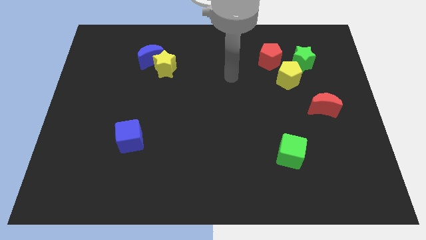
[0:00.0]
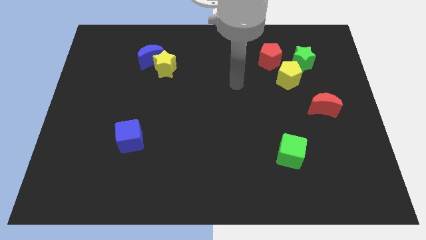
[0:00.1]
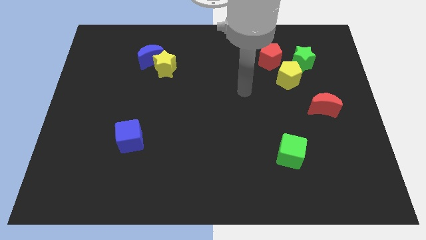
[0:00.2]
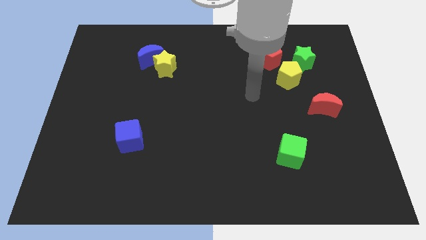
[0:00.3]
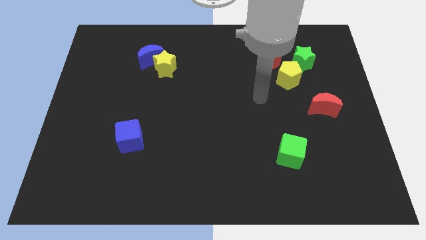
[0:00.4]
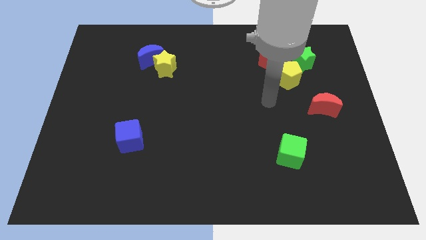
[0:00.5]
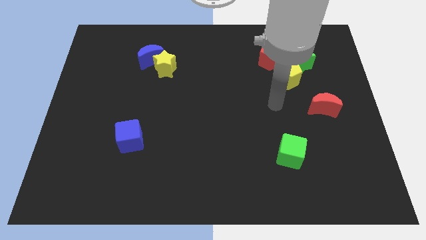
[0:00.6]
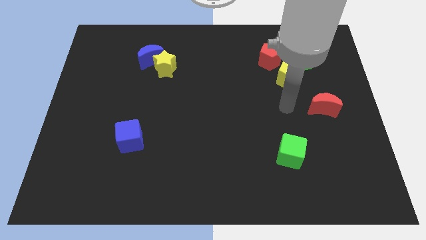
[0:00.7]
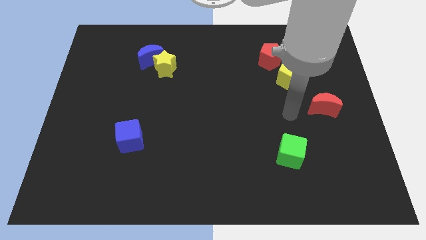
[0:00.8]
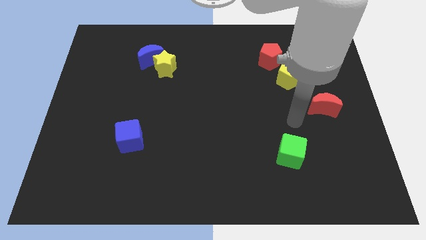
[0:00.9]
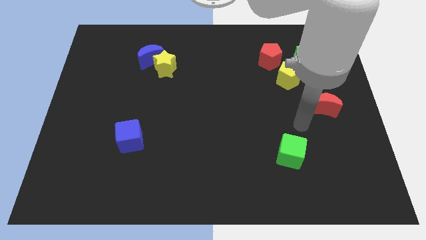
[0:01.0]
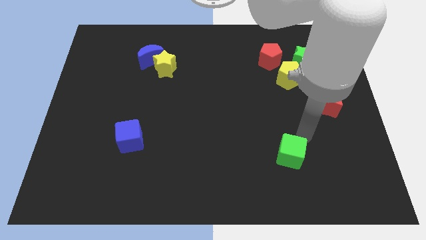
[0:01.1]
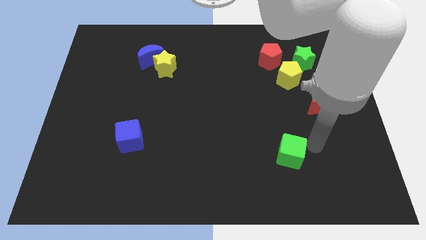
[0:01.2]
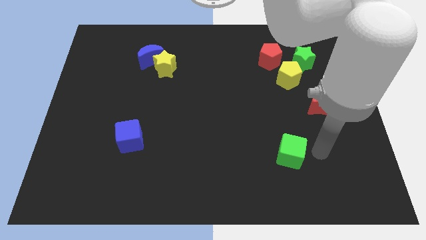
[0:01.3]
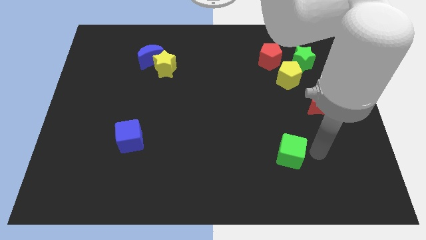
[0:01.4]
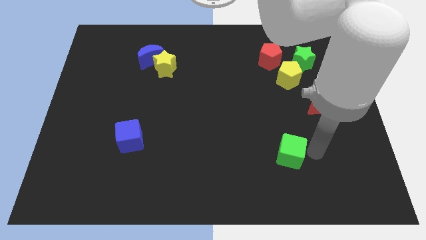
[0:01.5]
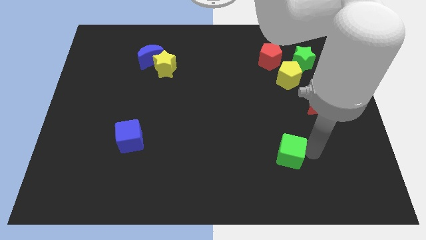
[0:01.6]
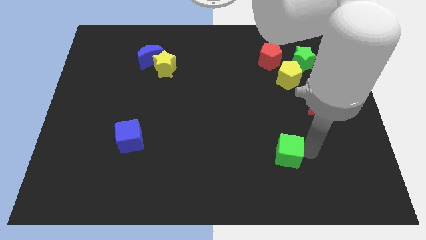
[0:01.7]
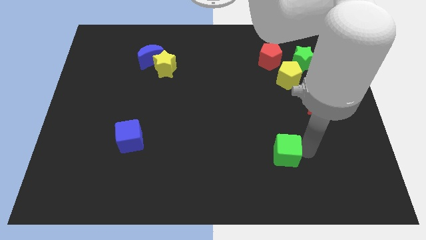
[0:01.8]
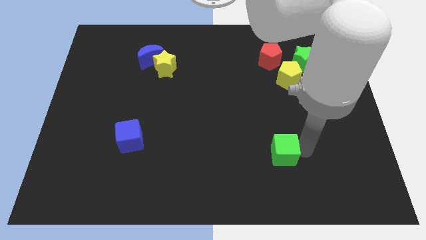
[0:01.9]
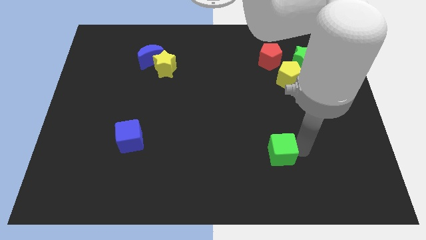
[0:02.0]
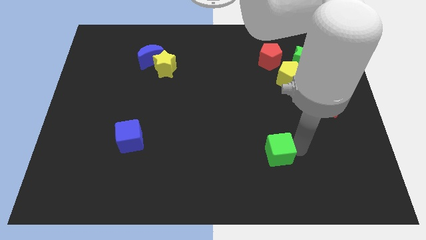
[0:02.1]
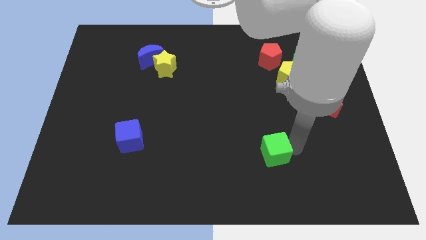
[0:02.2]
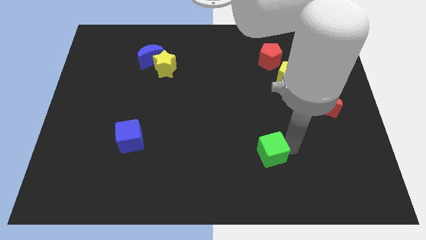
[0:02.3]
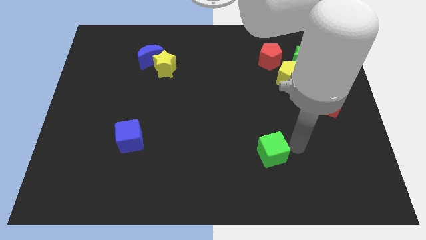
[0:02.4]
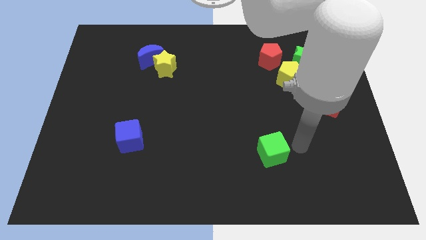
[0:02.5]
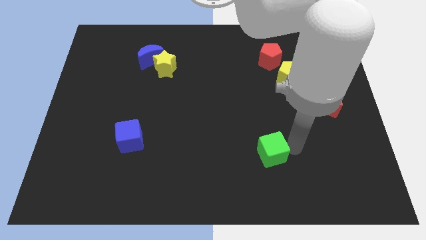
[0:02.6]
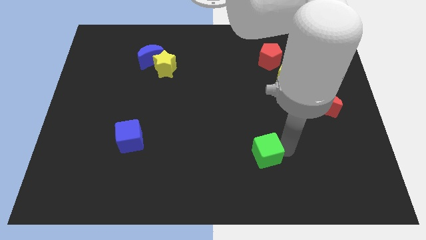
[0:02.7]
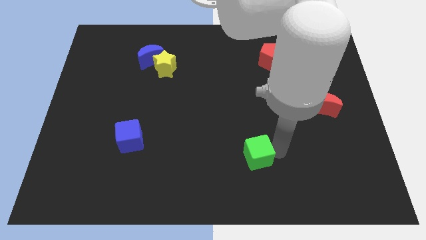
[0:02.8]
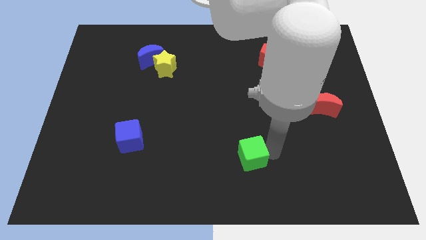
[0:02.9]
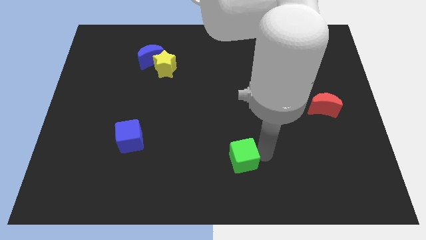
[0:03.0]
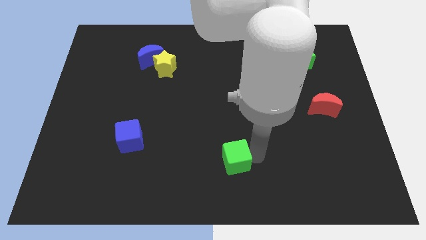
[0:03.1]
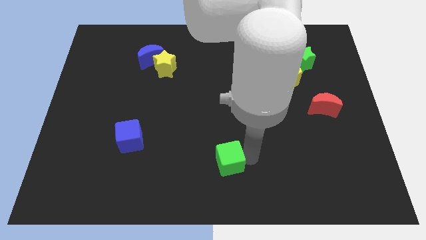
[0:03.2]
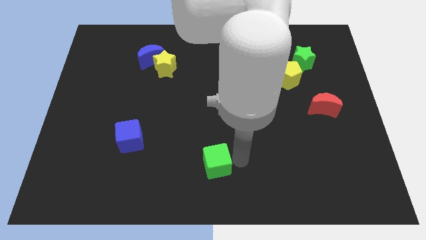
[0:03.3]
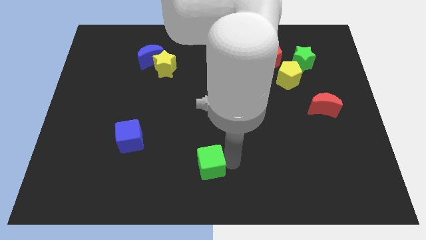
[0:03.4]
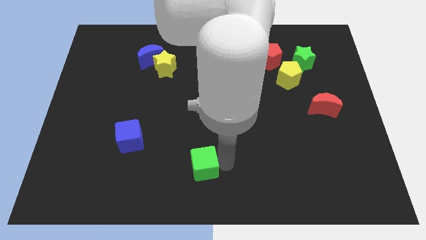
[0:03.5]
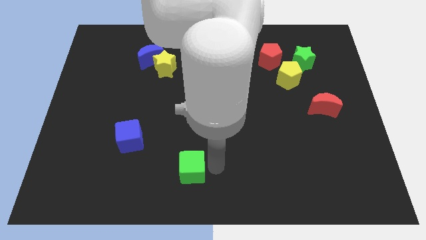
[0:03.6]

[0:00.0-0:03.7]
move the green cube left

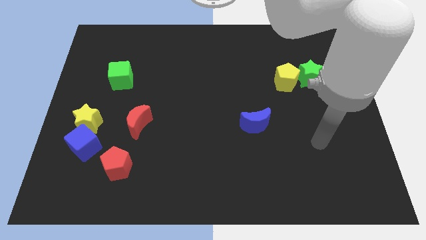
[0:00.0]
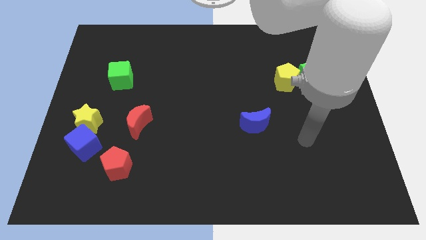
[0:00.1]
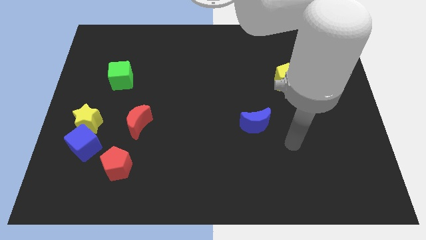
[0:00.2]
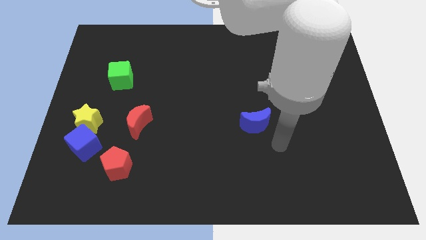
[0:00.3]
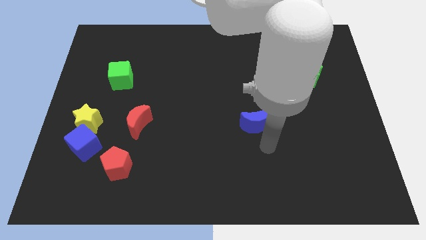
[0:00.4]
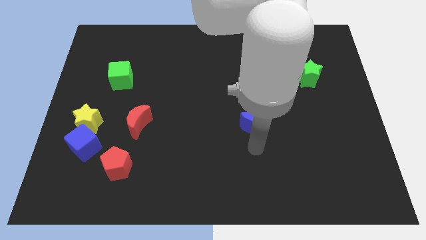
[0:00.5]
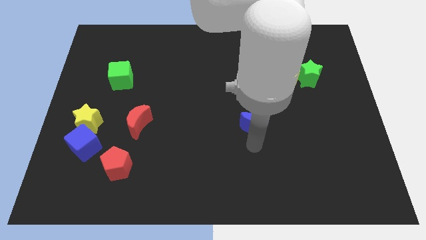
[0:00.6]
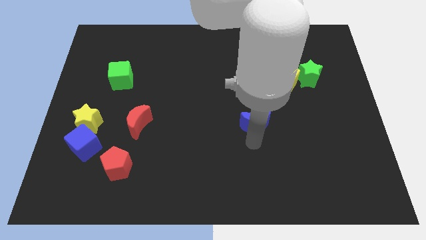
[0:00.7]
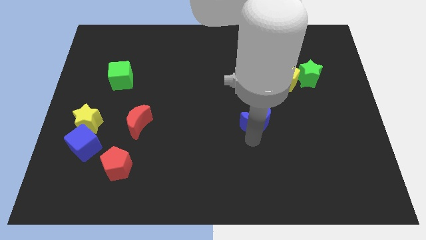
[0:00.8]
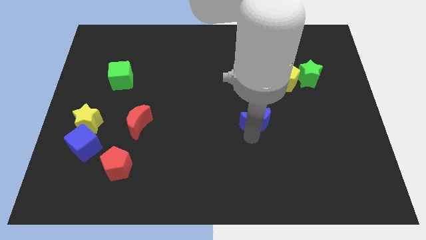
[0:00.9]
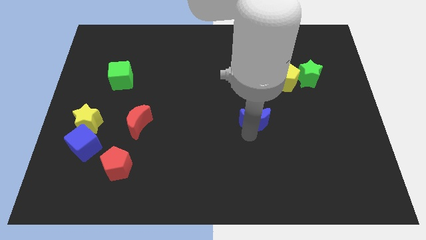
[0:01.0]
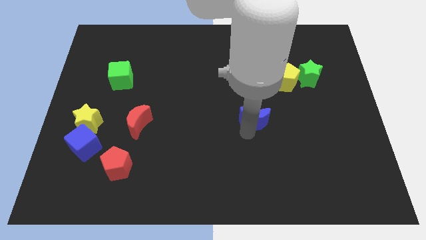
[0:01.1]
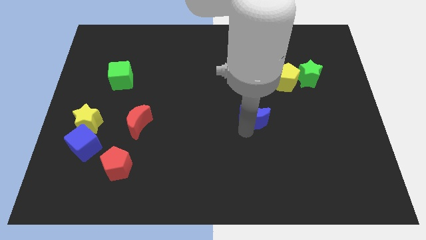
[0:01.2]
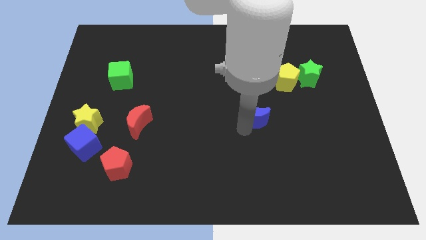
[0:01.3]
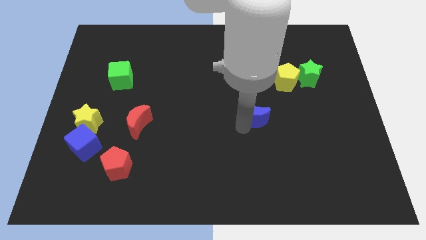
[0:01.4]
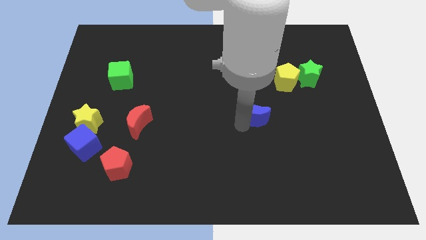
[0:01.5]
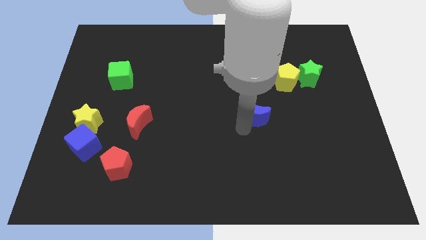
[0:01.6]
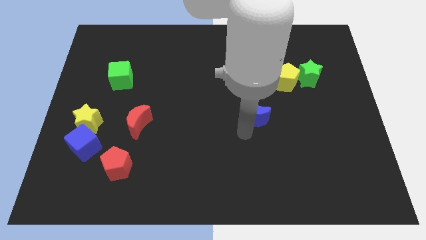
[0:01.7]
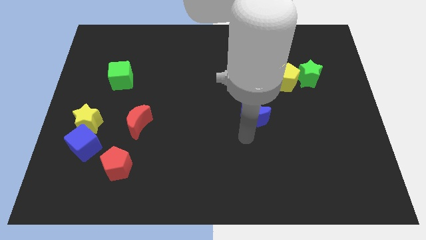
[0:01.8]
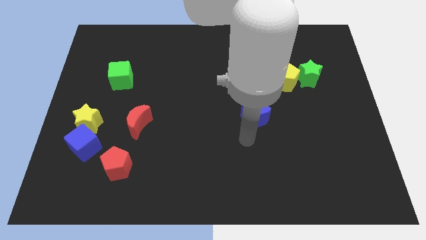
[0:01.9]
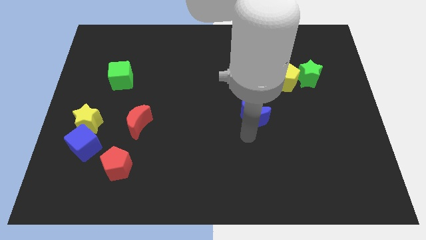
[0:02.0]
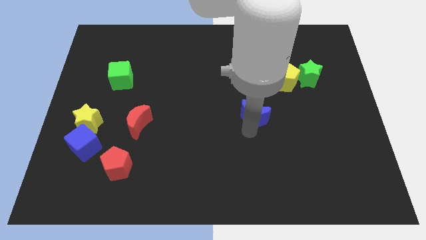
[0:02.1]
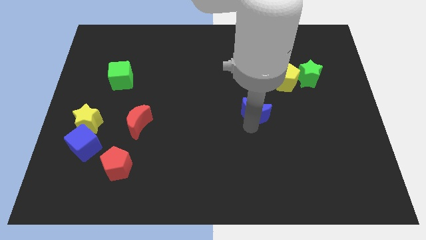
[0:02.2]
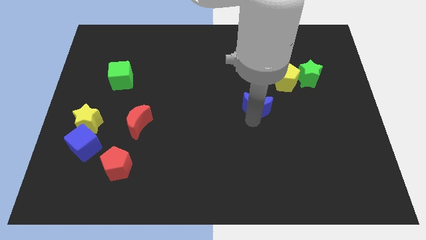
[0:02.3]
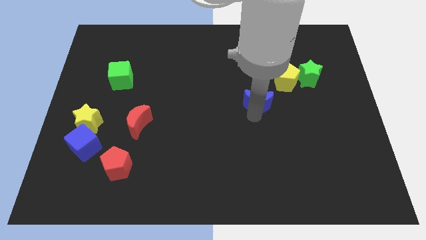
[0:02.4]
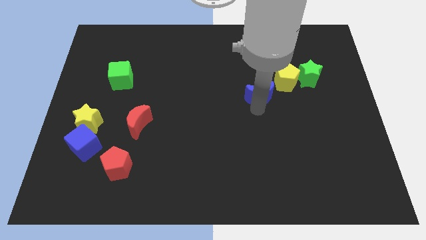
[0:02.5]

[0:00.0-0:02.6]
move the blue moon up a little

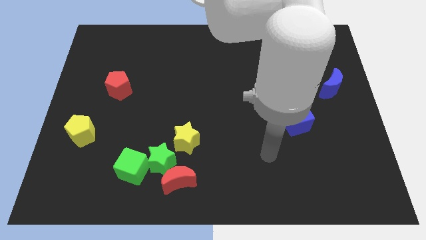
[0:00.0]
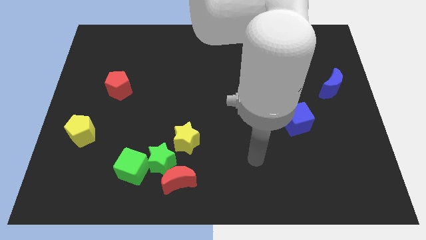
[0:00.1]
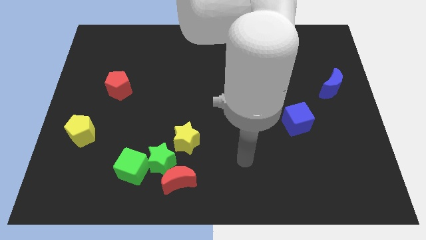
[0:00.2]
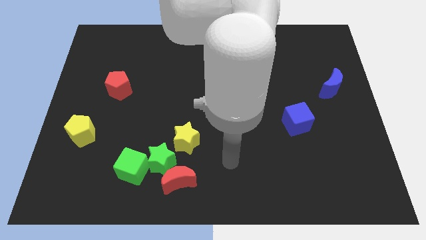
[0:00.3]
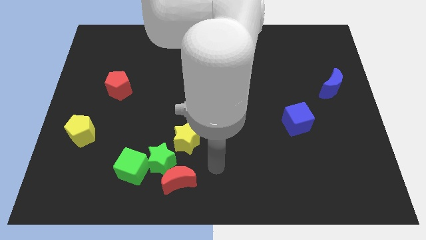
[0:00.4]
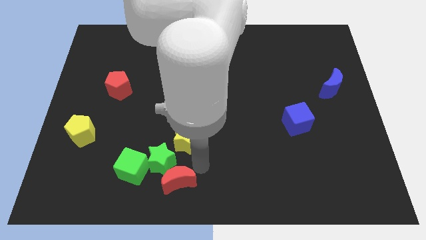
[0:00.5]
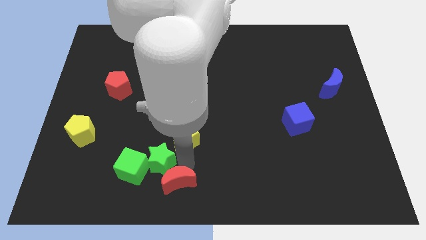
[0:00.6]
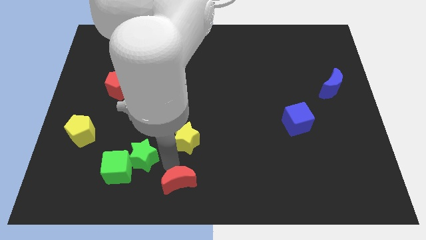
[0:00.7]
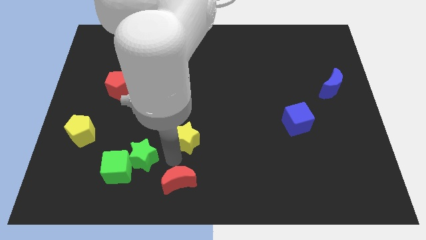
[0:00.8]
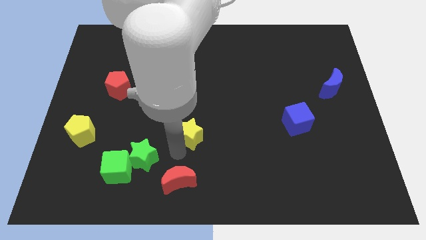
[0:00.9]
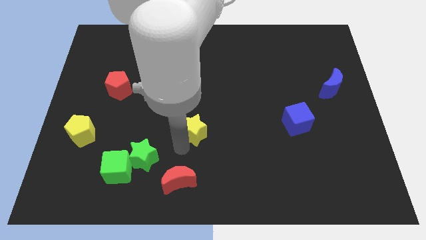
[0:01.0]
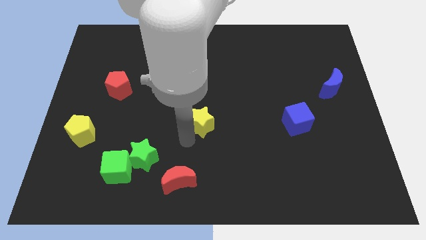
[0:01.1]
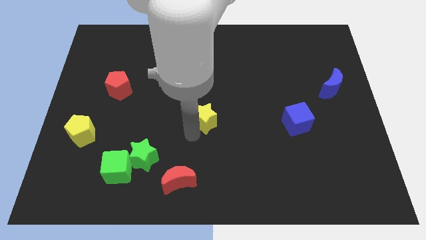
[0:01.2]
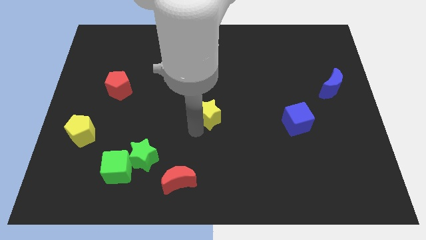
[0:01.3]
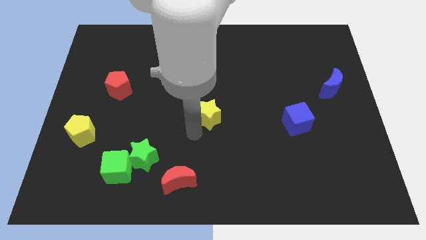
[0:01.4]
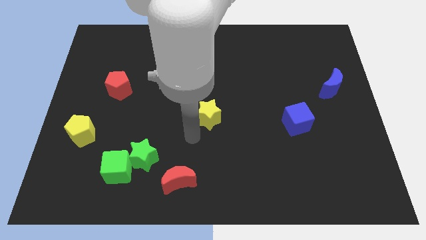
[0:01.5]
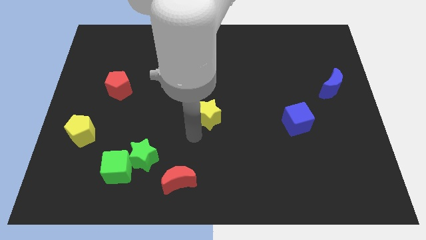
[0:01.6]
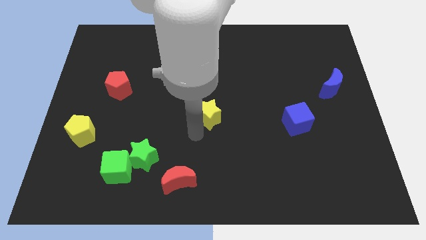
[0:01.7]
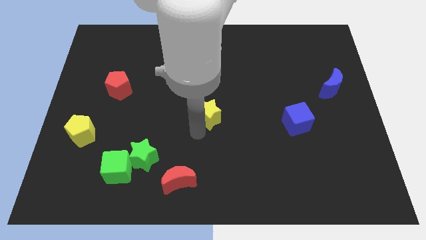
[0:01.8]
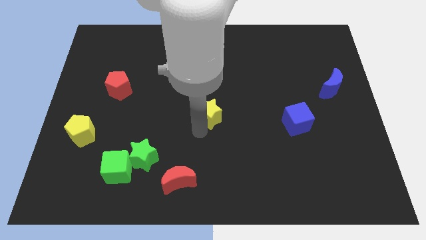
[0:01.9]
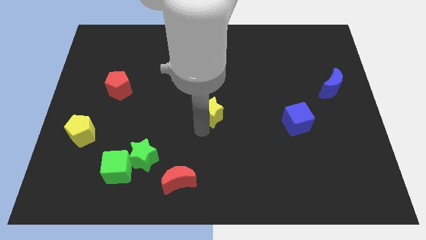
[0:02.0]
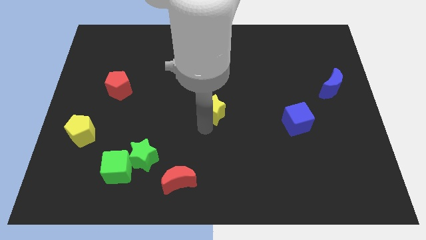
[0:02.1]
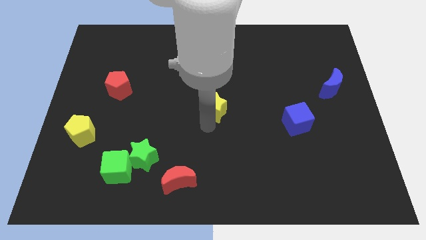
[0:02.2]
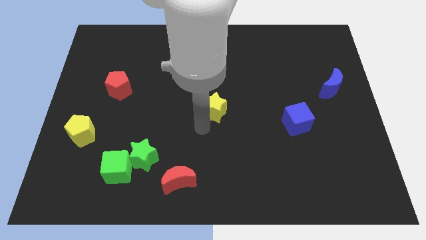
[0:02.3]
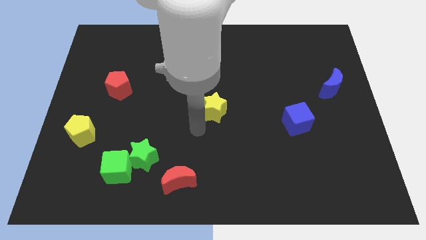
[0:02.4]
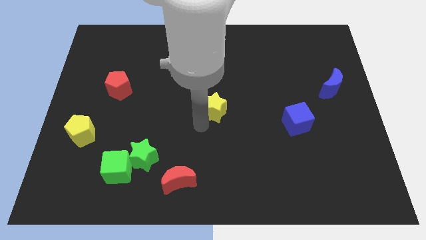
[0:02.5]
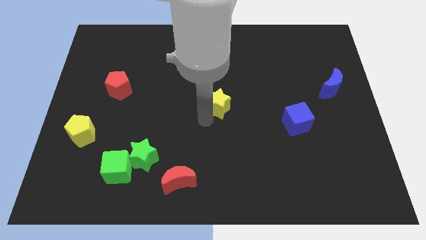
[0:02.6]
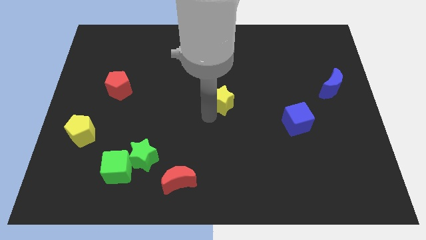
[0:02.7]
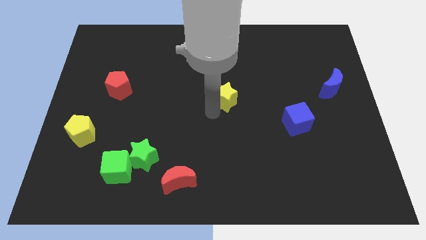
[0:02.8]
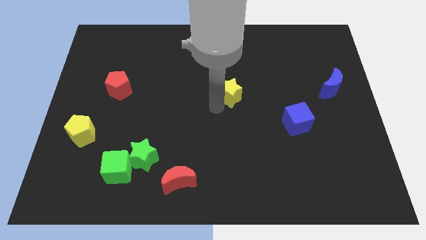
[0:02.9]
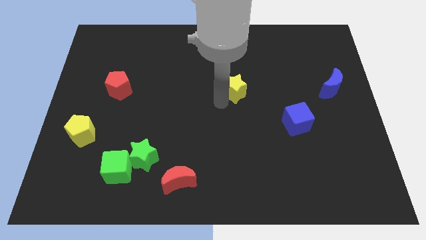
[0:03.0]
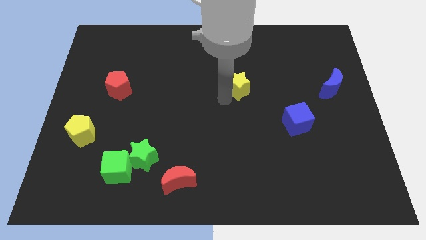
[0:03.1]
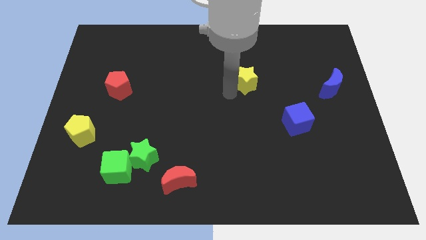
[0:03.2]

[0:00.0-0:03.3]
slide the yellow star up and then to the right
